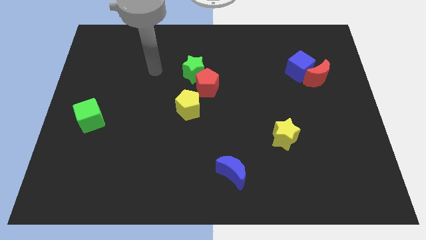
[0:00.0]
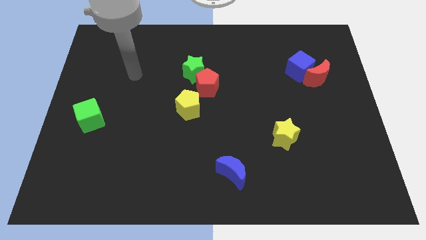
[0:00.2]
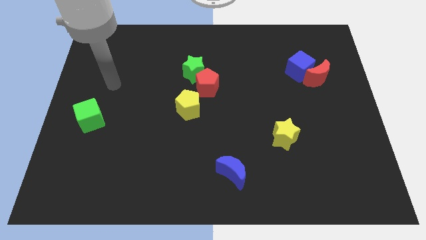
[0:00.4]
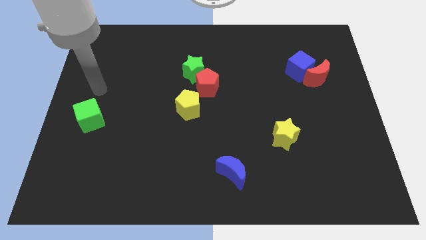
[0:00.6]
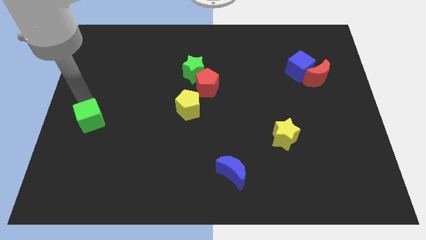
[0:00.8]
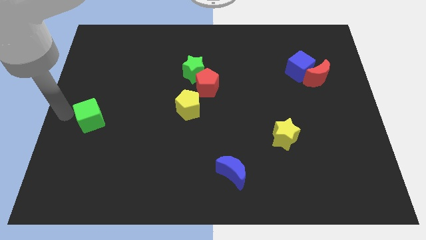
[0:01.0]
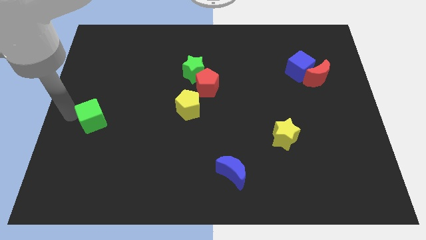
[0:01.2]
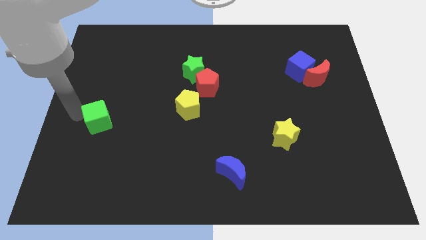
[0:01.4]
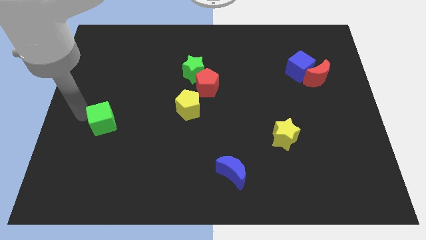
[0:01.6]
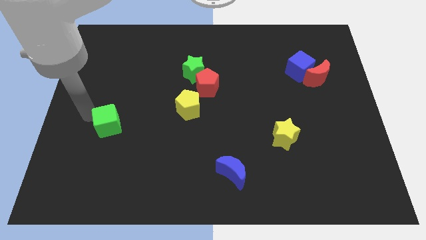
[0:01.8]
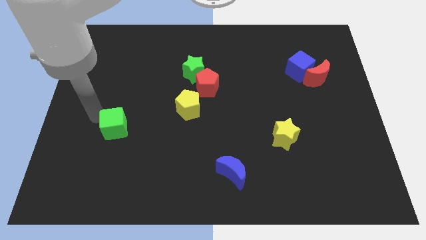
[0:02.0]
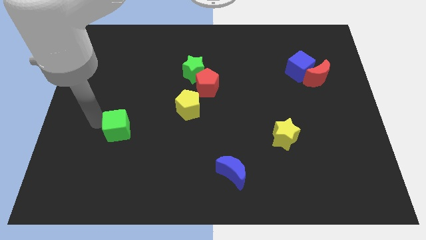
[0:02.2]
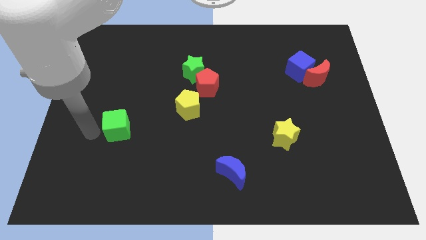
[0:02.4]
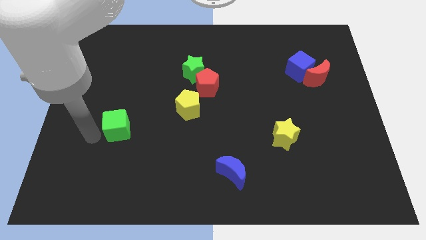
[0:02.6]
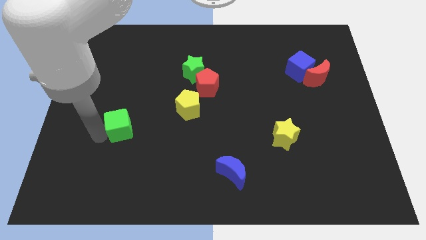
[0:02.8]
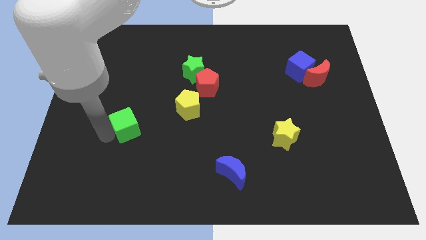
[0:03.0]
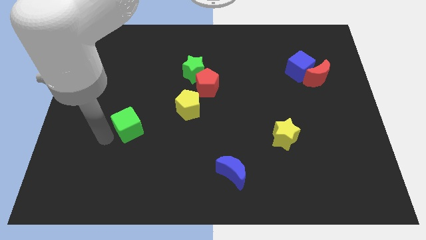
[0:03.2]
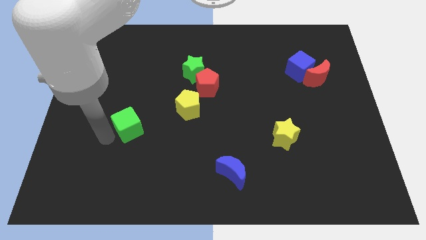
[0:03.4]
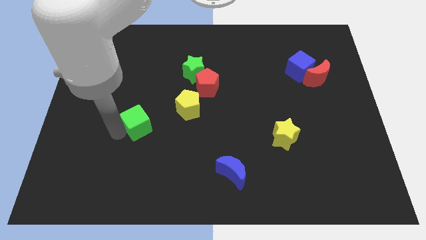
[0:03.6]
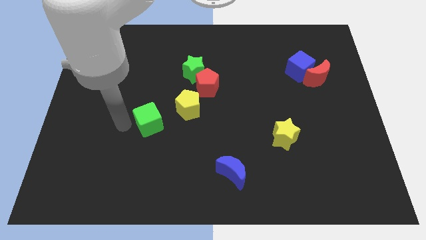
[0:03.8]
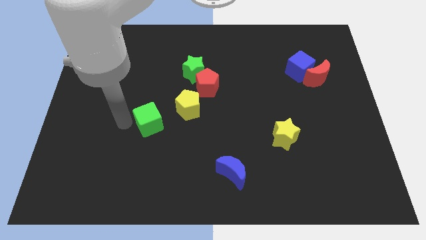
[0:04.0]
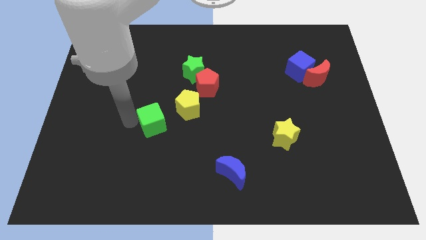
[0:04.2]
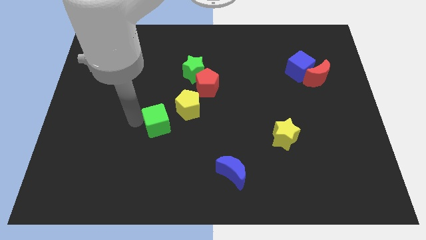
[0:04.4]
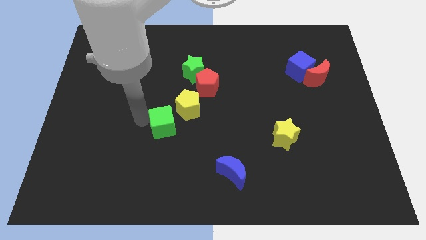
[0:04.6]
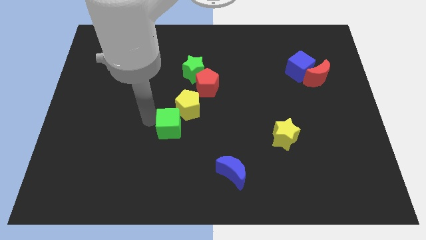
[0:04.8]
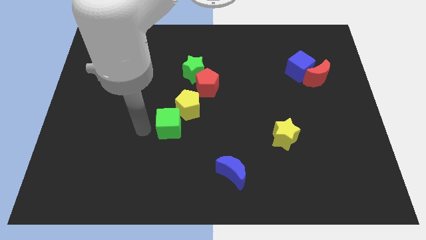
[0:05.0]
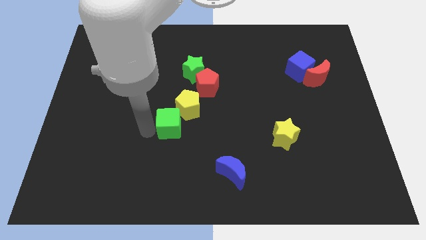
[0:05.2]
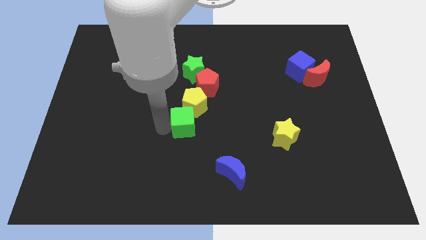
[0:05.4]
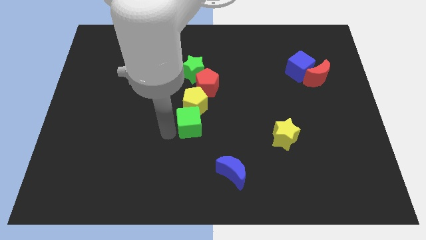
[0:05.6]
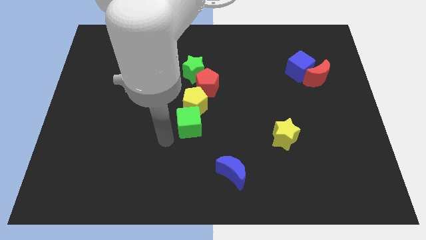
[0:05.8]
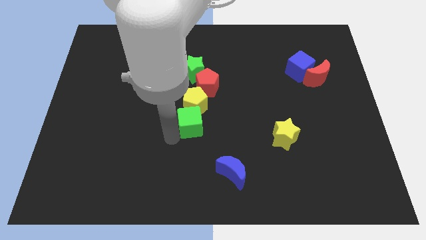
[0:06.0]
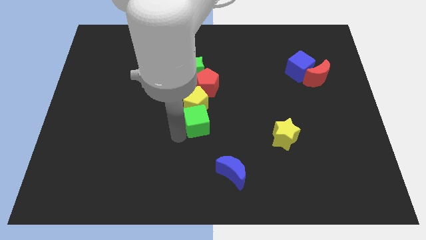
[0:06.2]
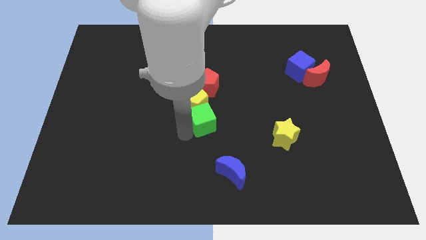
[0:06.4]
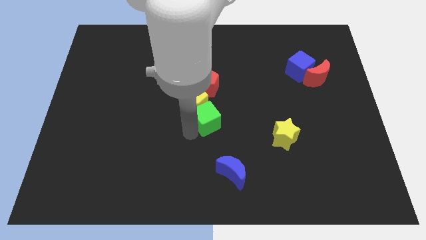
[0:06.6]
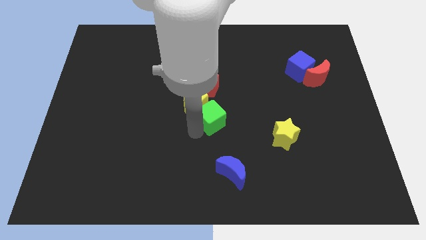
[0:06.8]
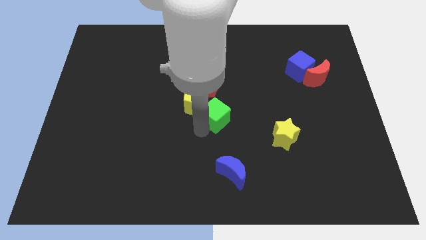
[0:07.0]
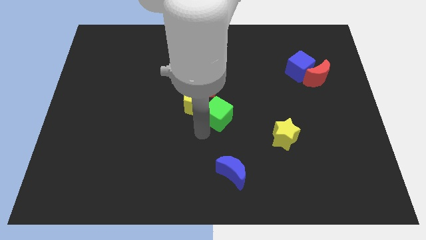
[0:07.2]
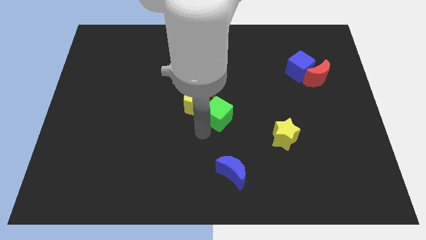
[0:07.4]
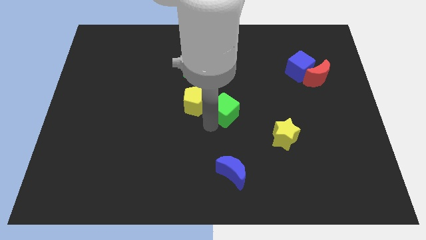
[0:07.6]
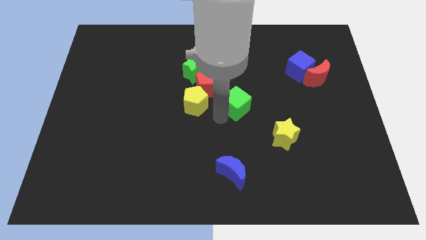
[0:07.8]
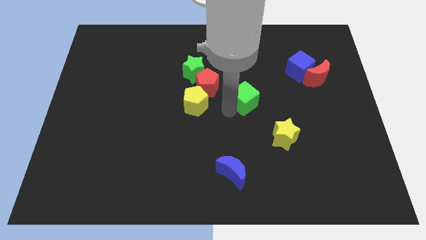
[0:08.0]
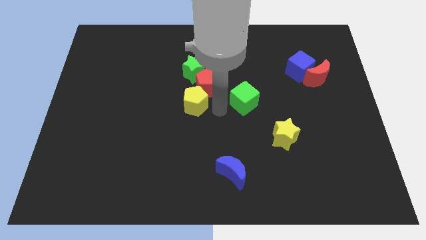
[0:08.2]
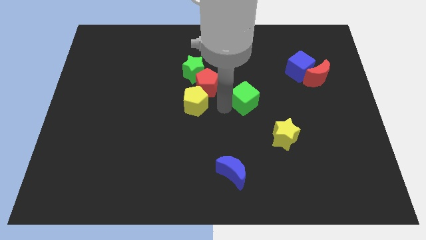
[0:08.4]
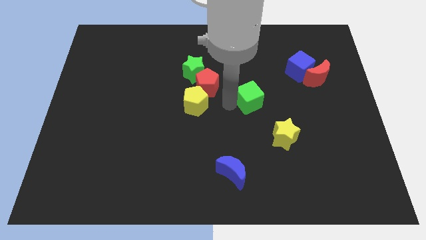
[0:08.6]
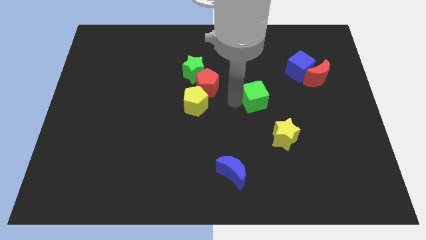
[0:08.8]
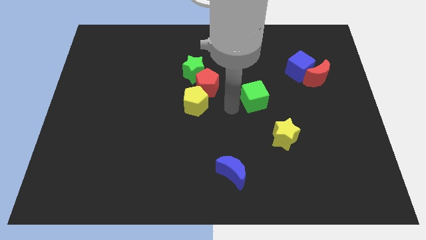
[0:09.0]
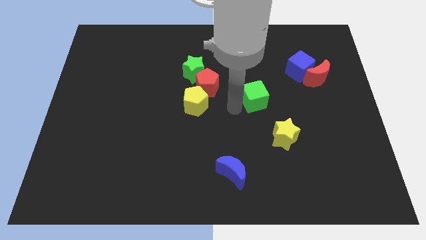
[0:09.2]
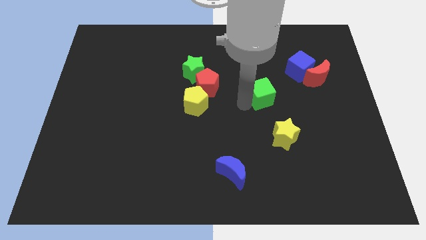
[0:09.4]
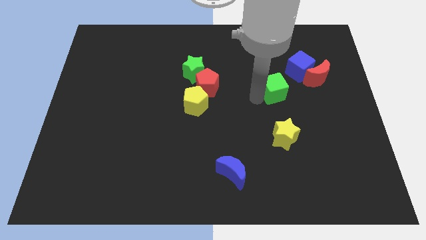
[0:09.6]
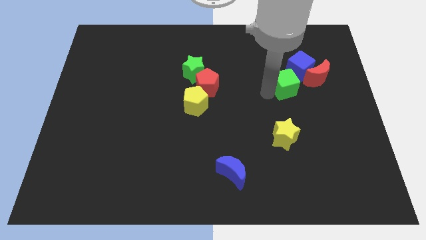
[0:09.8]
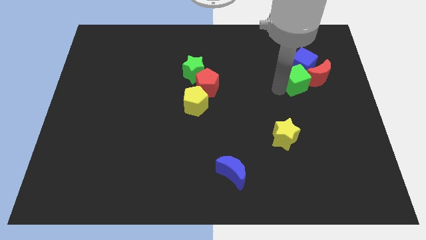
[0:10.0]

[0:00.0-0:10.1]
push the green cube towards the red moon

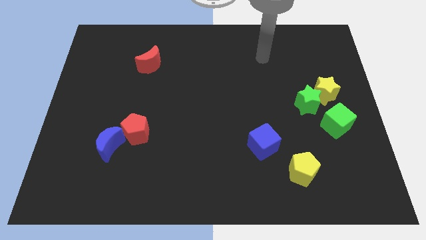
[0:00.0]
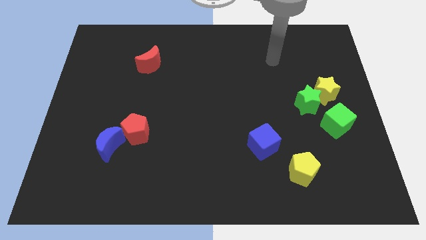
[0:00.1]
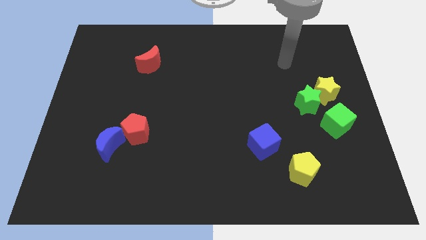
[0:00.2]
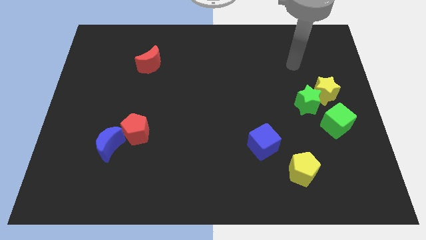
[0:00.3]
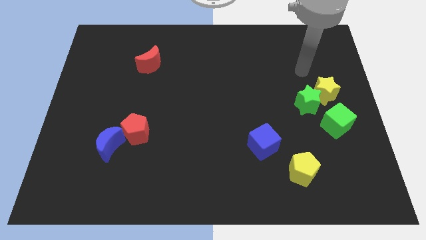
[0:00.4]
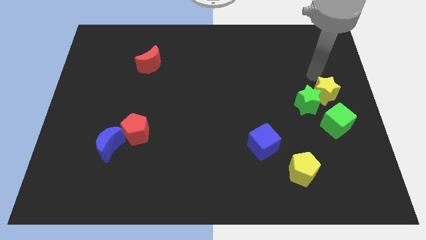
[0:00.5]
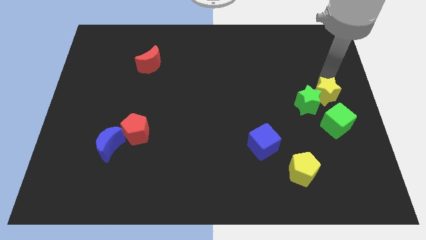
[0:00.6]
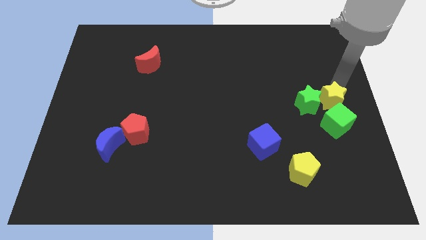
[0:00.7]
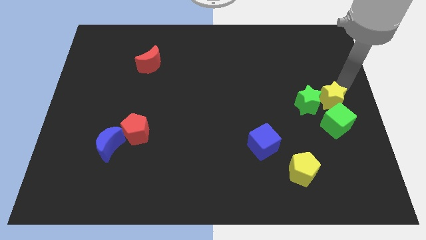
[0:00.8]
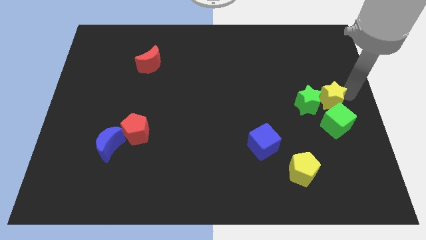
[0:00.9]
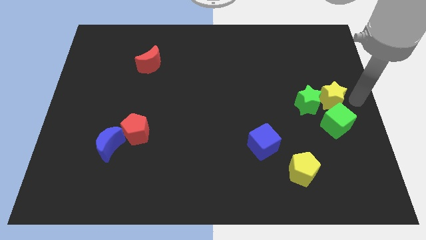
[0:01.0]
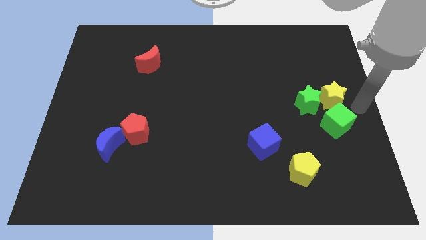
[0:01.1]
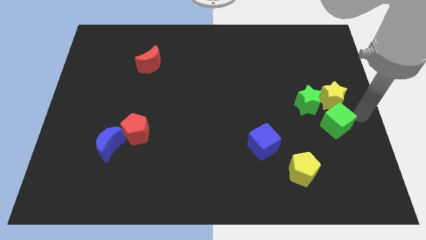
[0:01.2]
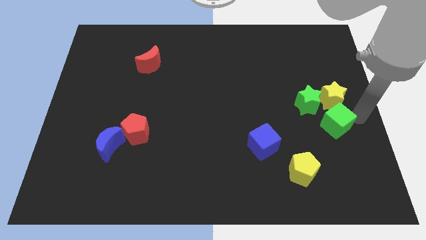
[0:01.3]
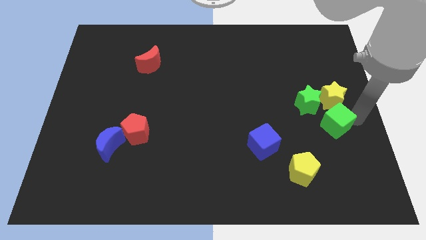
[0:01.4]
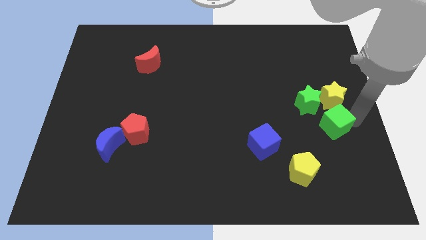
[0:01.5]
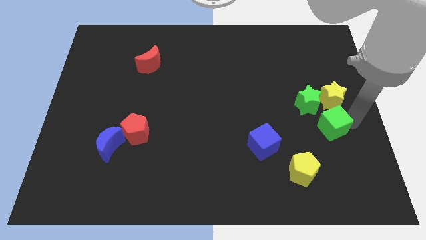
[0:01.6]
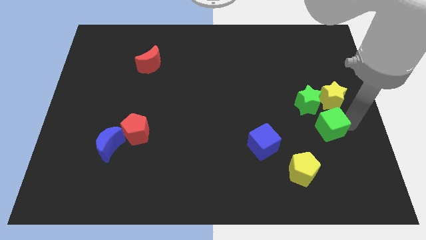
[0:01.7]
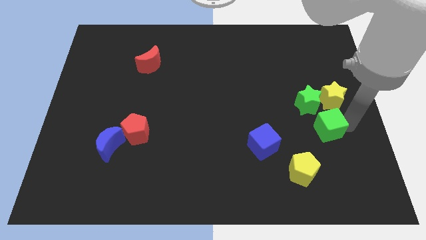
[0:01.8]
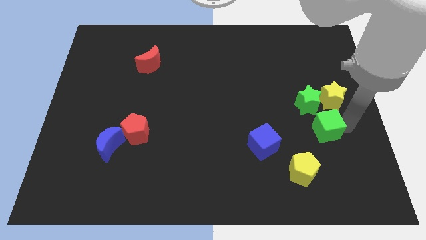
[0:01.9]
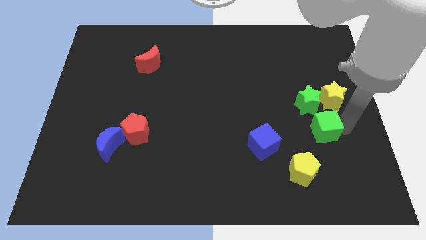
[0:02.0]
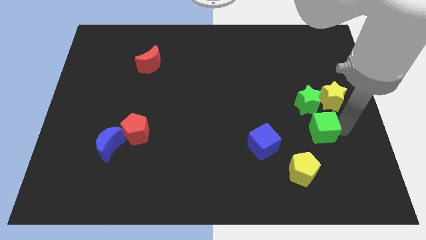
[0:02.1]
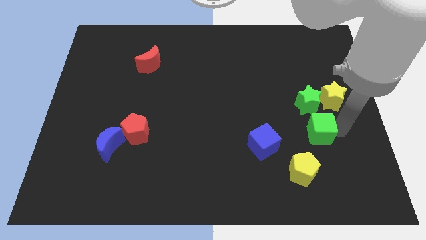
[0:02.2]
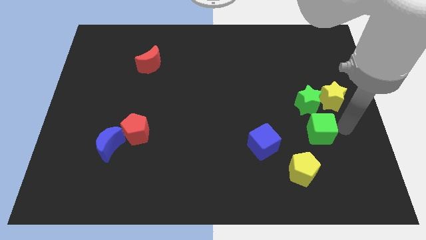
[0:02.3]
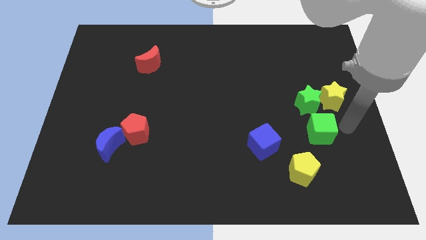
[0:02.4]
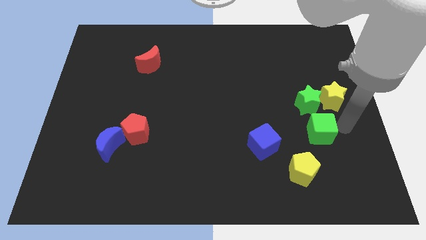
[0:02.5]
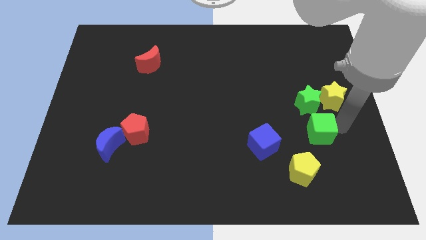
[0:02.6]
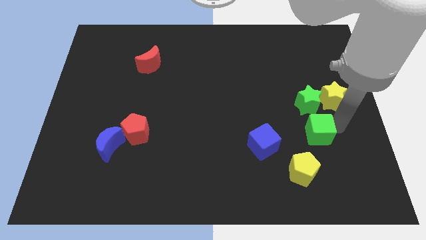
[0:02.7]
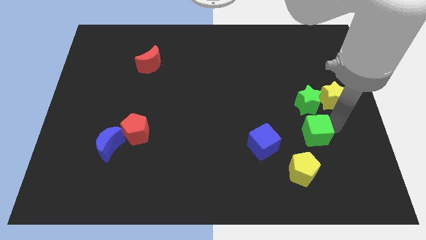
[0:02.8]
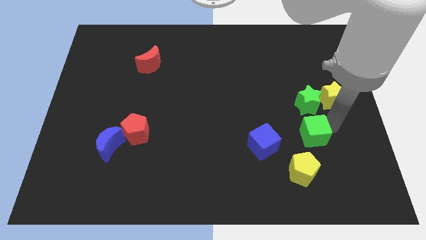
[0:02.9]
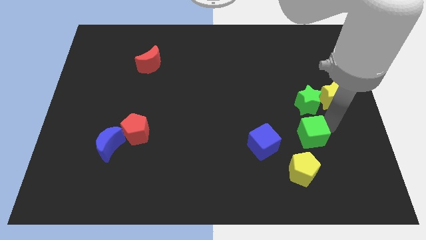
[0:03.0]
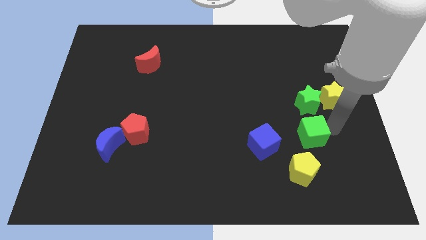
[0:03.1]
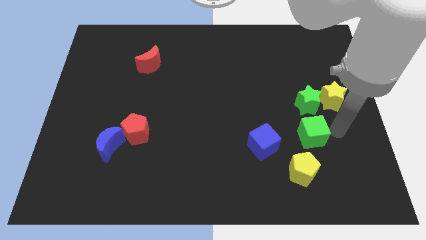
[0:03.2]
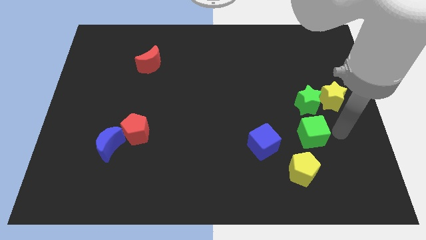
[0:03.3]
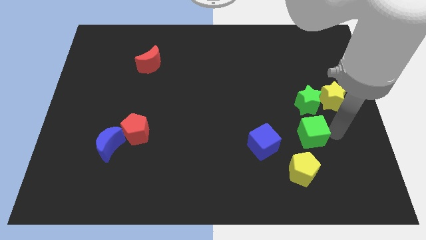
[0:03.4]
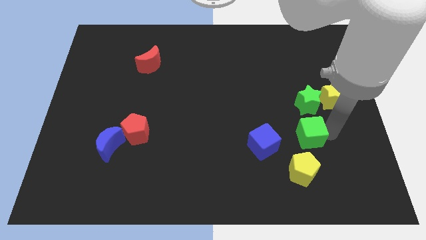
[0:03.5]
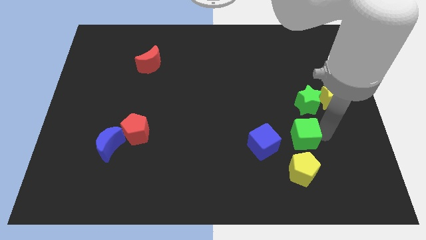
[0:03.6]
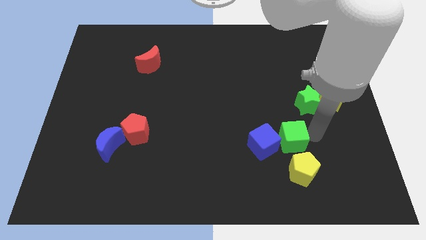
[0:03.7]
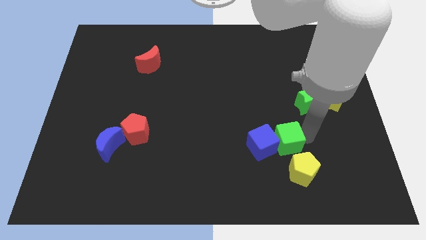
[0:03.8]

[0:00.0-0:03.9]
move the green cube next to the blue cube
